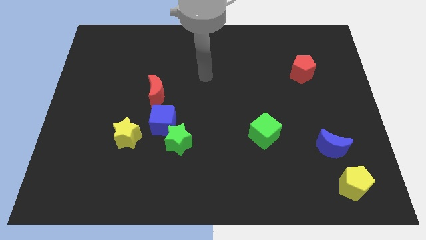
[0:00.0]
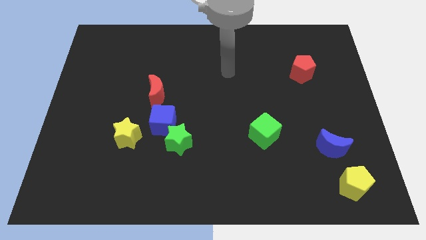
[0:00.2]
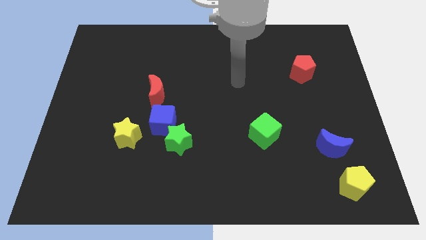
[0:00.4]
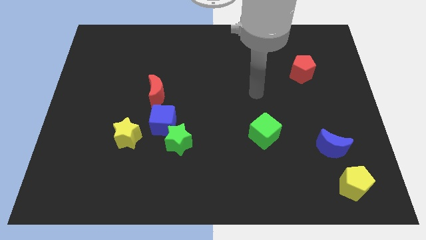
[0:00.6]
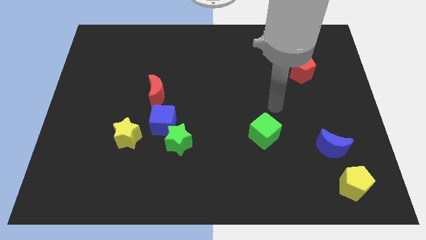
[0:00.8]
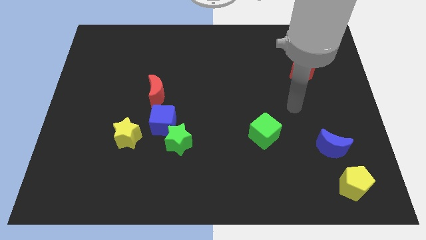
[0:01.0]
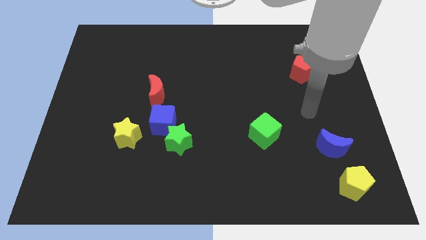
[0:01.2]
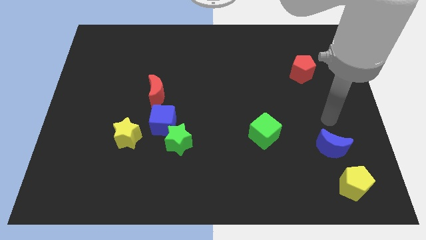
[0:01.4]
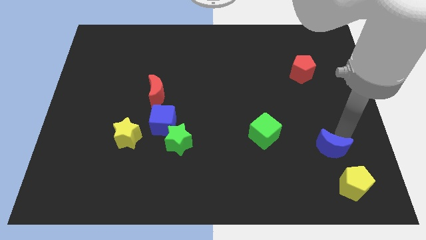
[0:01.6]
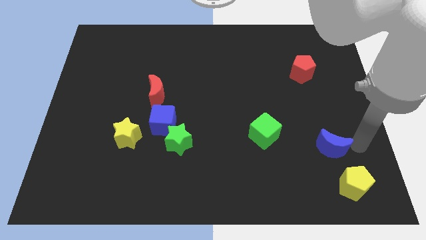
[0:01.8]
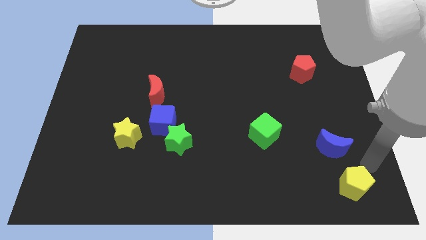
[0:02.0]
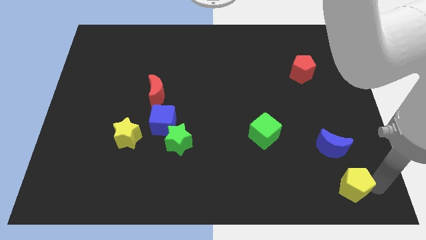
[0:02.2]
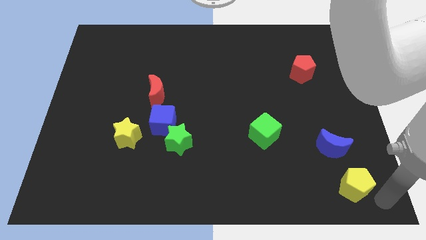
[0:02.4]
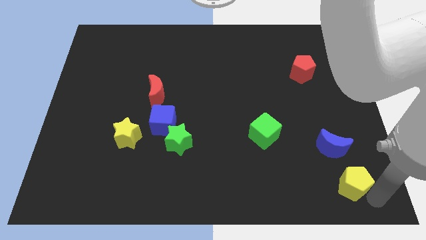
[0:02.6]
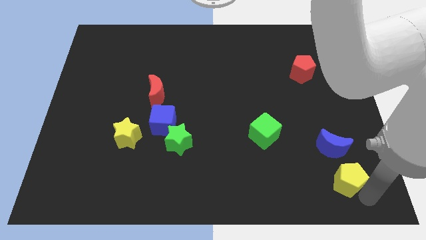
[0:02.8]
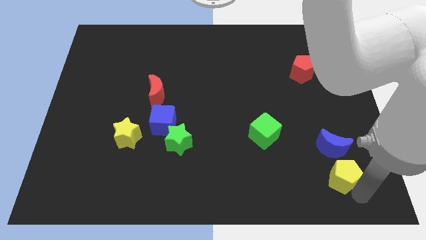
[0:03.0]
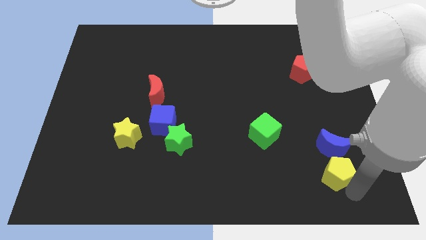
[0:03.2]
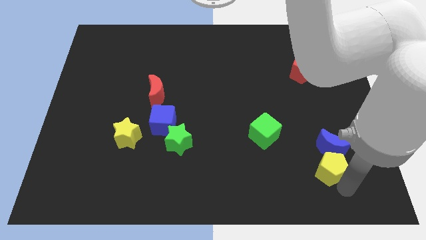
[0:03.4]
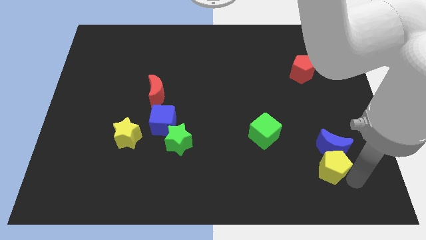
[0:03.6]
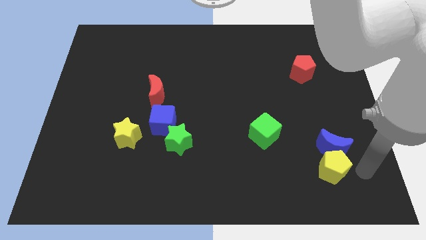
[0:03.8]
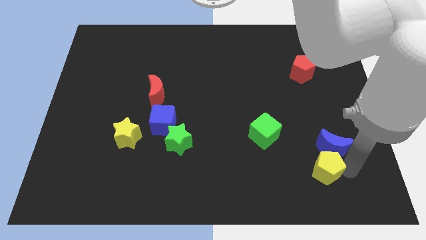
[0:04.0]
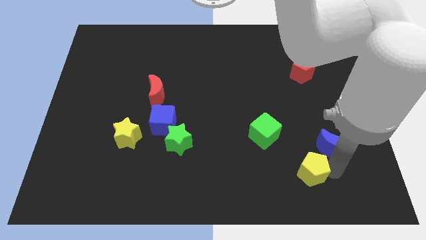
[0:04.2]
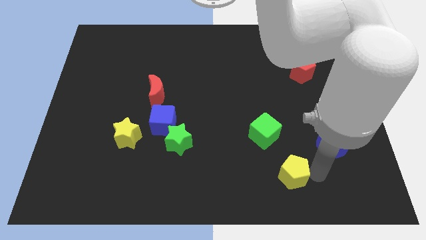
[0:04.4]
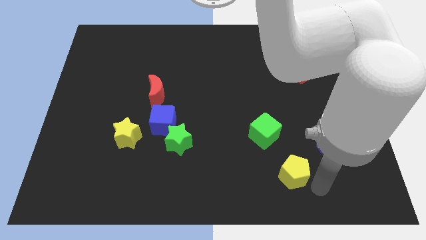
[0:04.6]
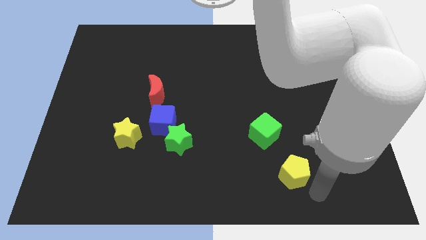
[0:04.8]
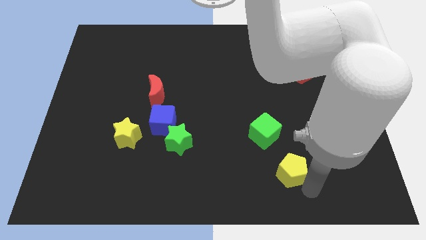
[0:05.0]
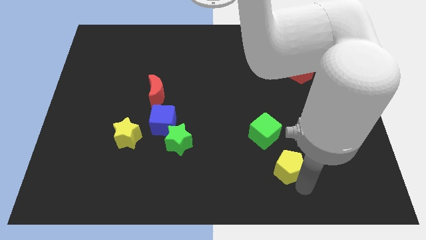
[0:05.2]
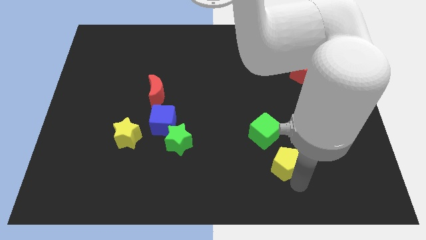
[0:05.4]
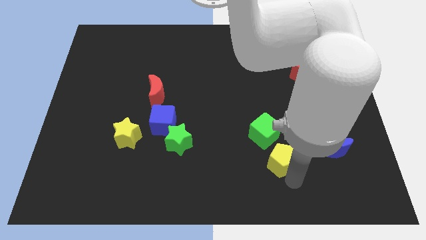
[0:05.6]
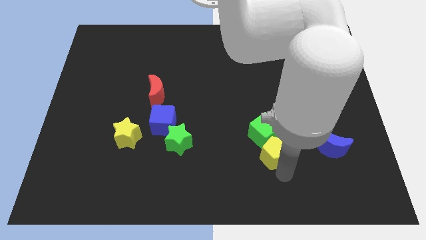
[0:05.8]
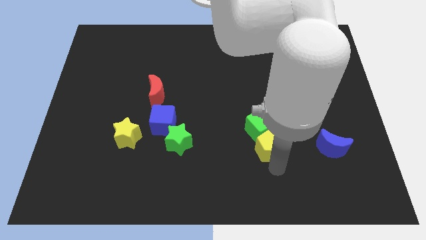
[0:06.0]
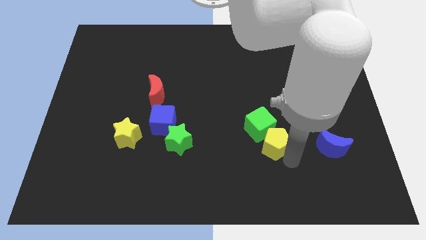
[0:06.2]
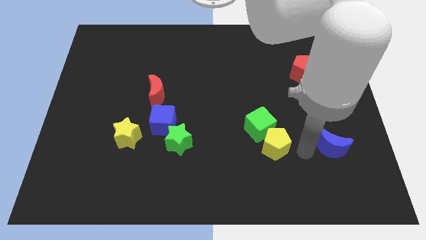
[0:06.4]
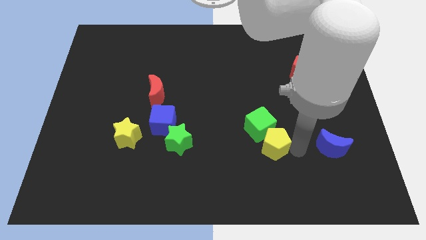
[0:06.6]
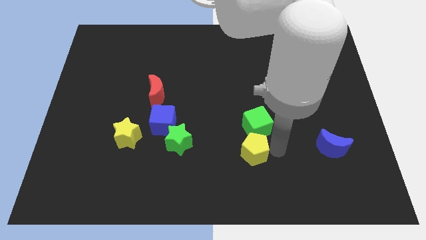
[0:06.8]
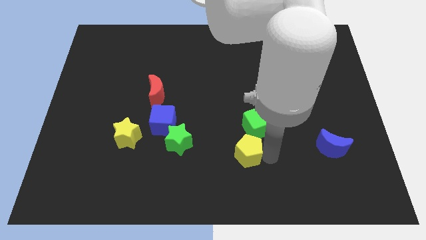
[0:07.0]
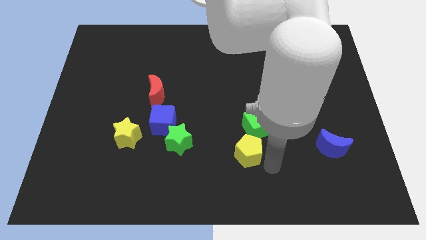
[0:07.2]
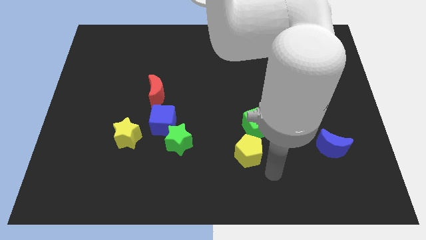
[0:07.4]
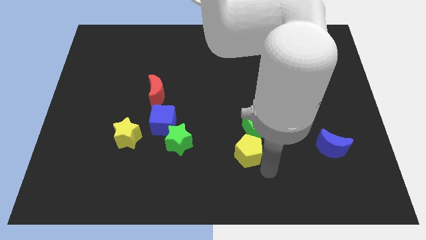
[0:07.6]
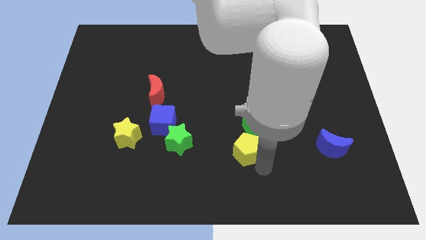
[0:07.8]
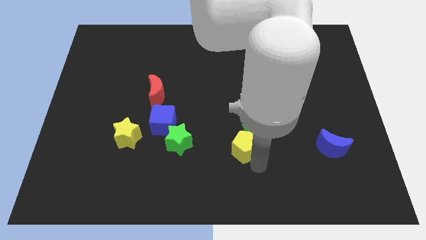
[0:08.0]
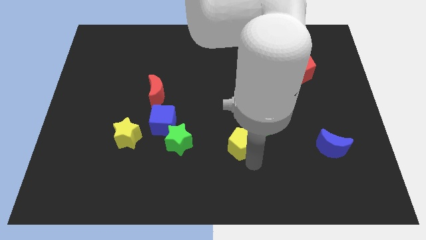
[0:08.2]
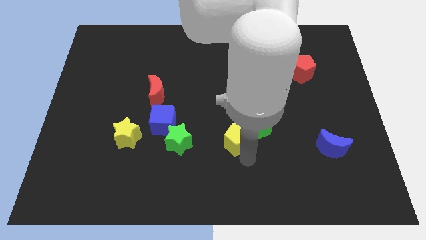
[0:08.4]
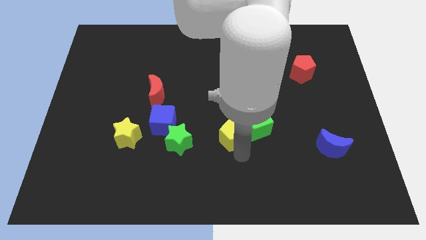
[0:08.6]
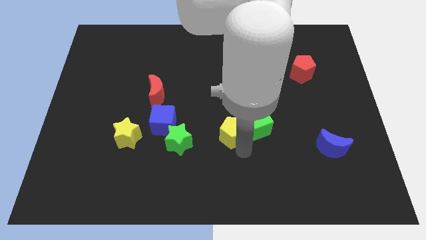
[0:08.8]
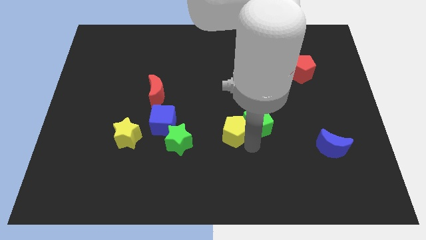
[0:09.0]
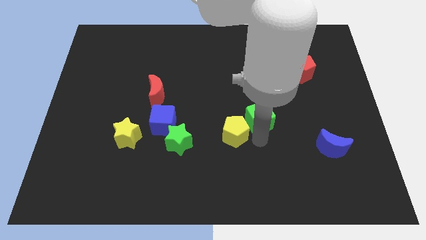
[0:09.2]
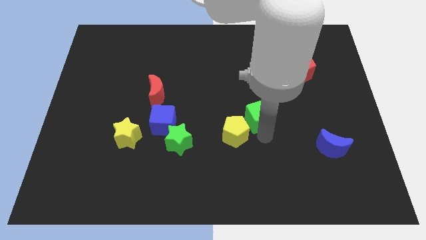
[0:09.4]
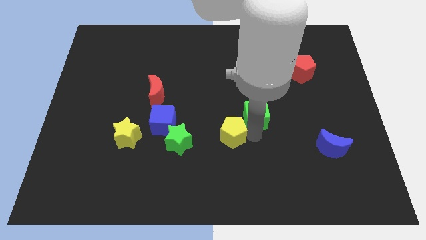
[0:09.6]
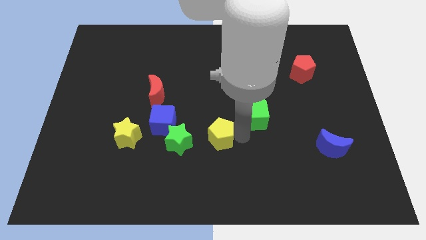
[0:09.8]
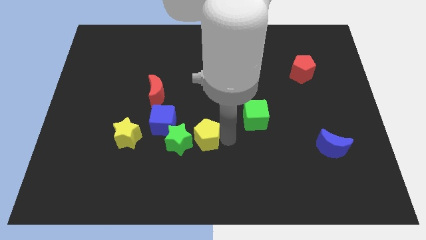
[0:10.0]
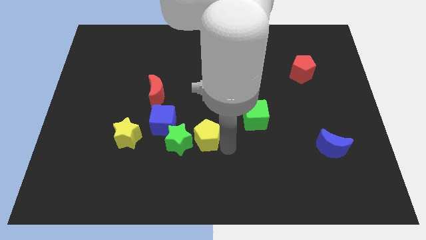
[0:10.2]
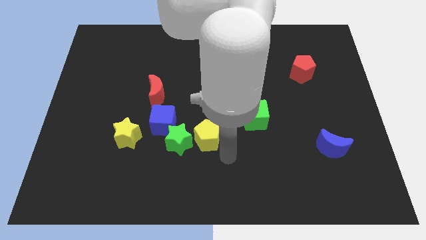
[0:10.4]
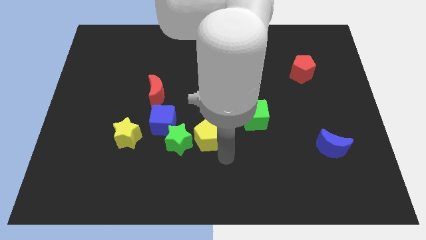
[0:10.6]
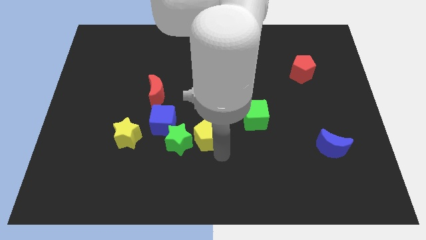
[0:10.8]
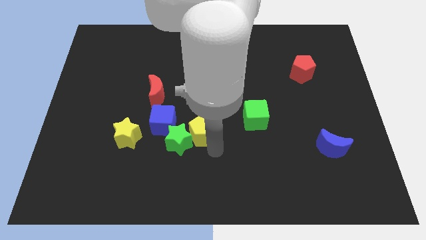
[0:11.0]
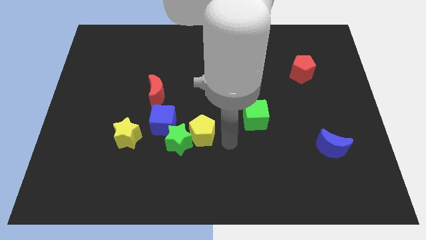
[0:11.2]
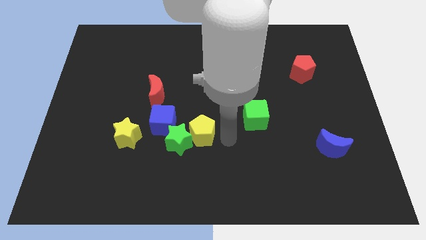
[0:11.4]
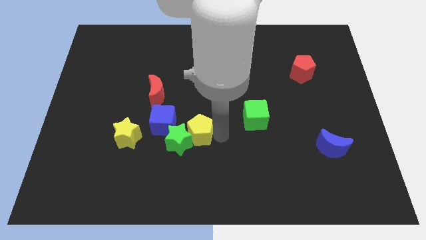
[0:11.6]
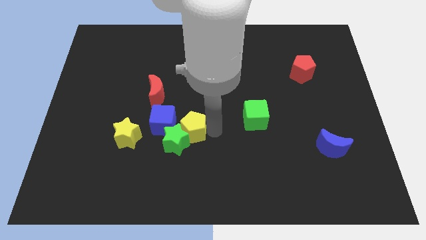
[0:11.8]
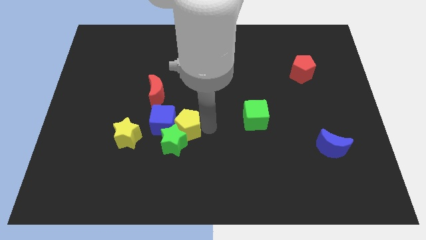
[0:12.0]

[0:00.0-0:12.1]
move the yellow pentagon next to the blue cube

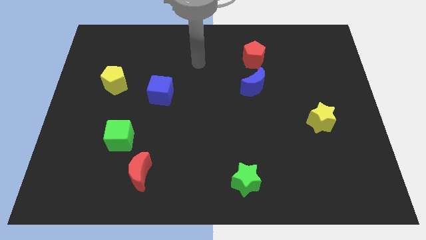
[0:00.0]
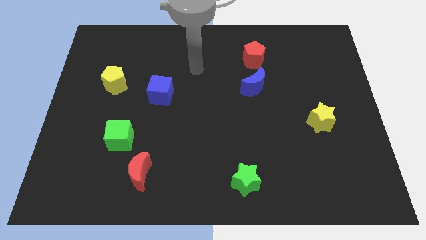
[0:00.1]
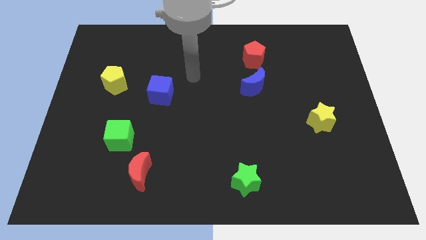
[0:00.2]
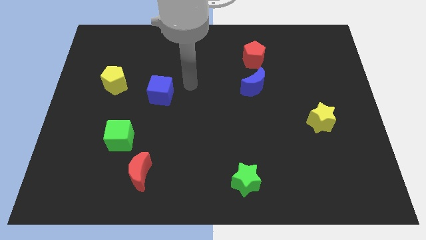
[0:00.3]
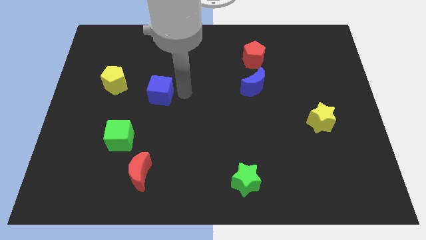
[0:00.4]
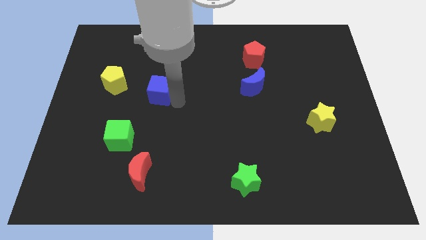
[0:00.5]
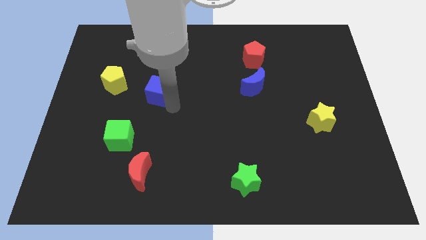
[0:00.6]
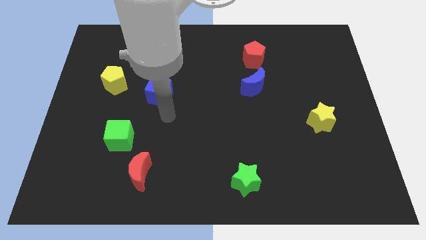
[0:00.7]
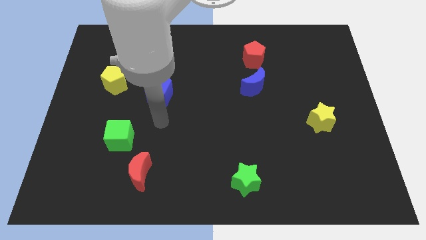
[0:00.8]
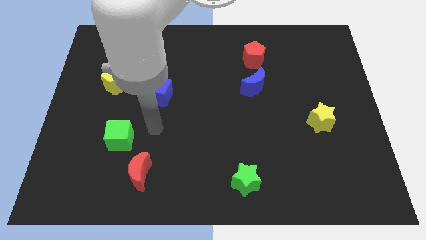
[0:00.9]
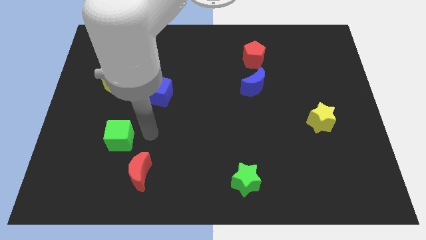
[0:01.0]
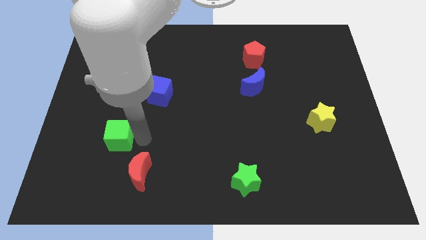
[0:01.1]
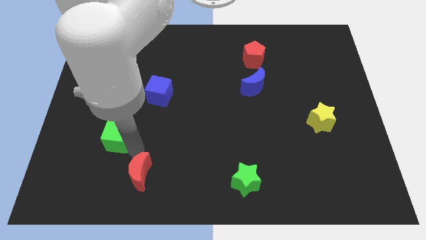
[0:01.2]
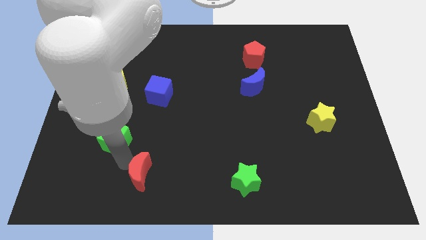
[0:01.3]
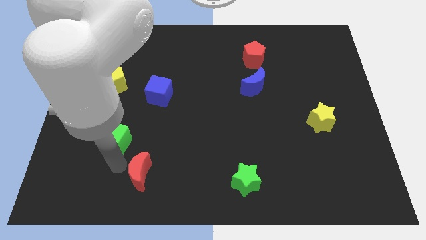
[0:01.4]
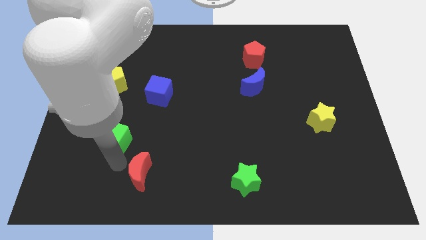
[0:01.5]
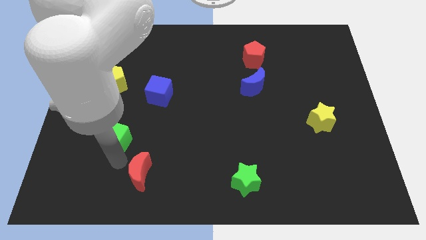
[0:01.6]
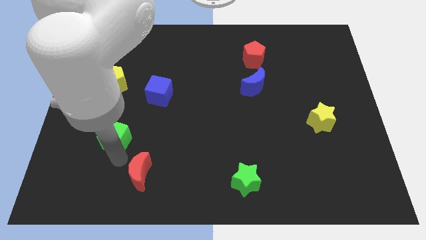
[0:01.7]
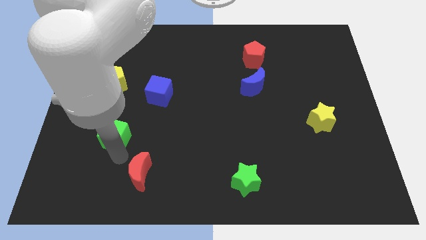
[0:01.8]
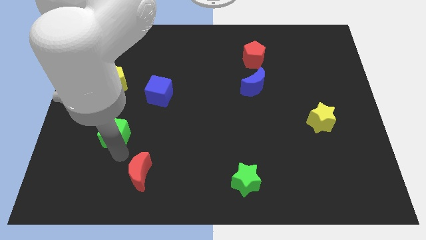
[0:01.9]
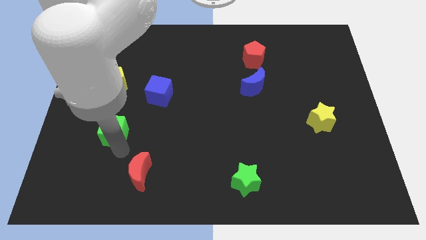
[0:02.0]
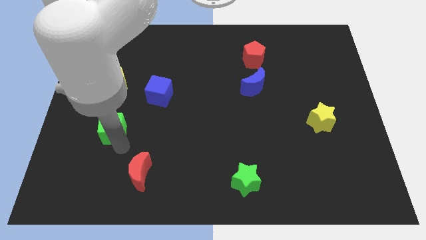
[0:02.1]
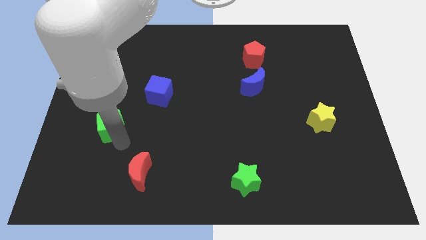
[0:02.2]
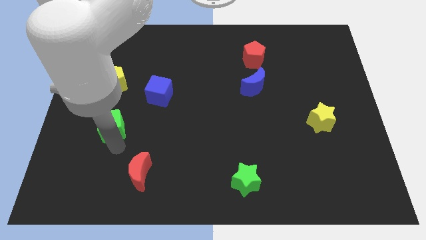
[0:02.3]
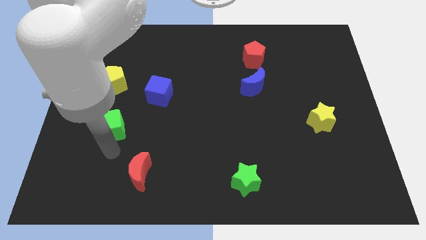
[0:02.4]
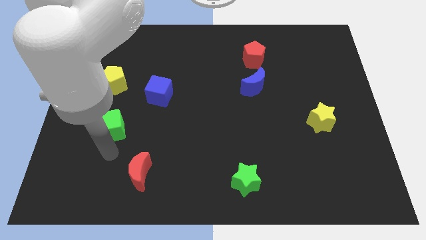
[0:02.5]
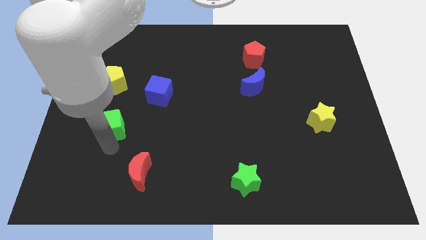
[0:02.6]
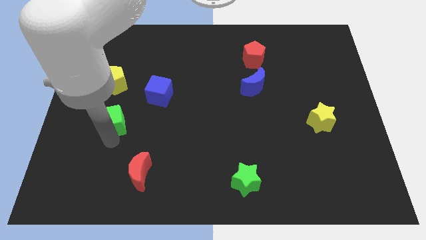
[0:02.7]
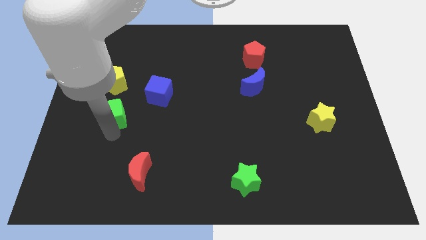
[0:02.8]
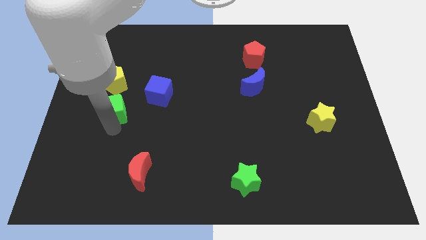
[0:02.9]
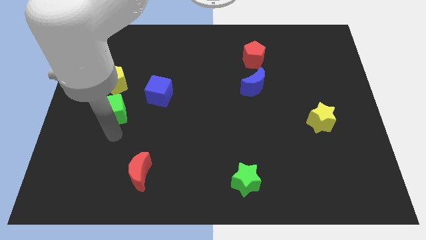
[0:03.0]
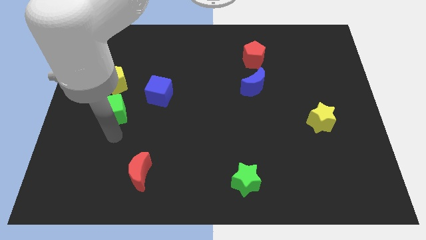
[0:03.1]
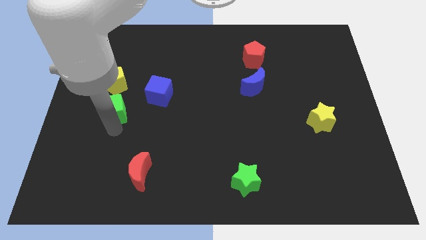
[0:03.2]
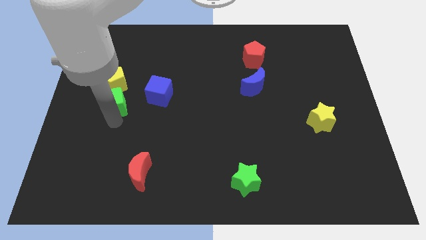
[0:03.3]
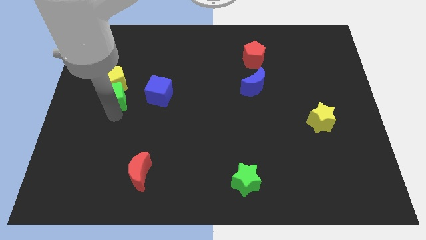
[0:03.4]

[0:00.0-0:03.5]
move the green cube close to the yellow pentagon
